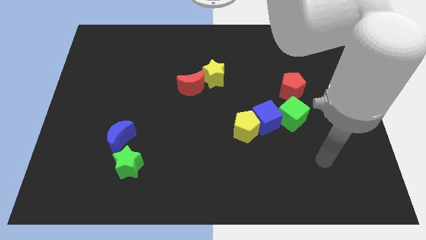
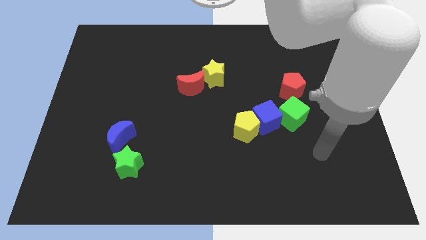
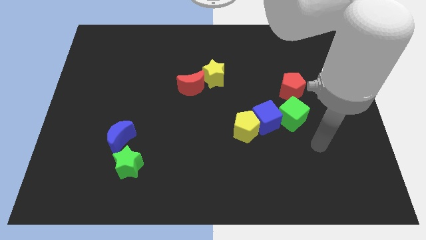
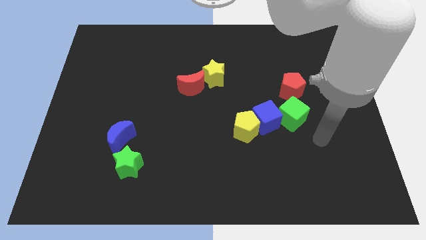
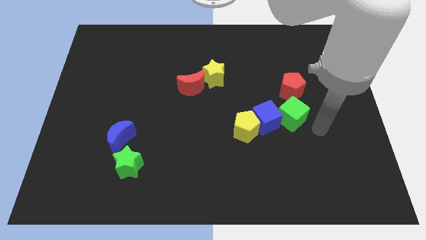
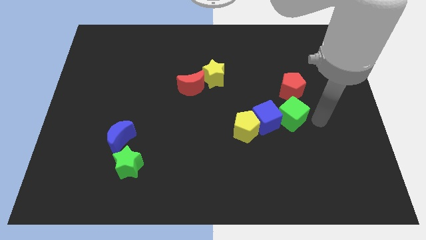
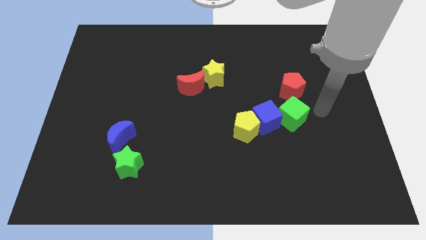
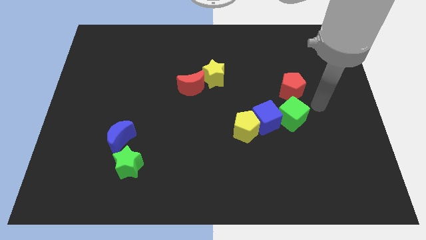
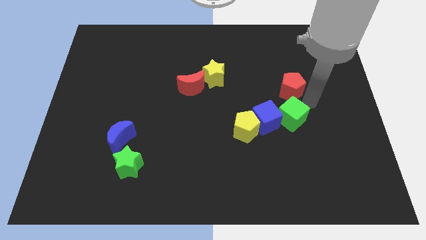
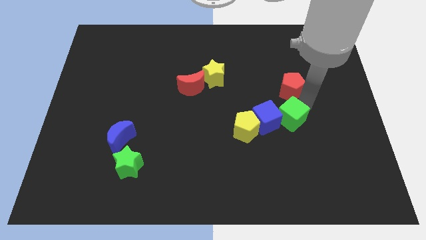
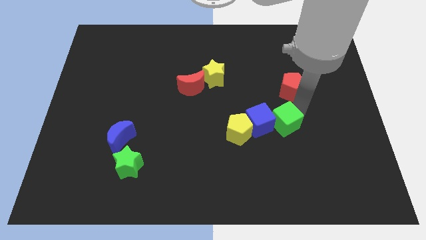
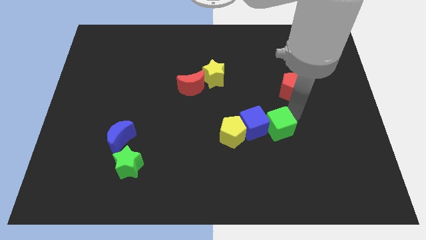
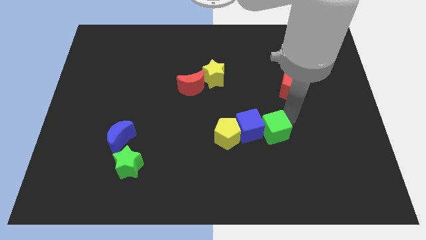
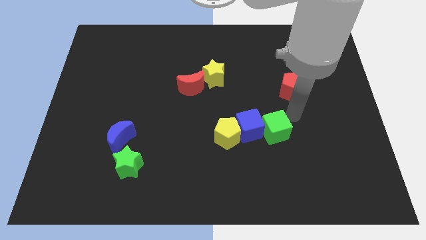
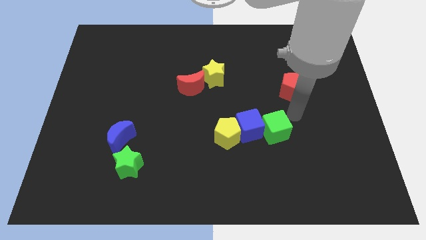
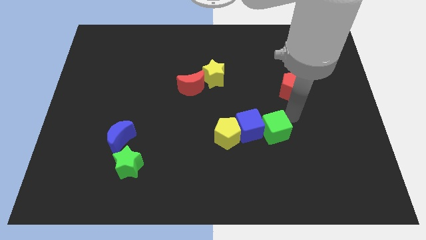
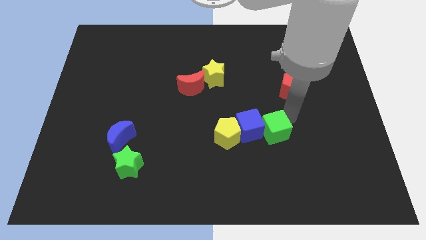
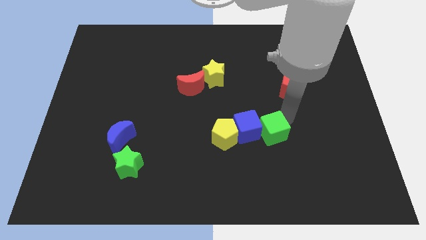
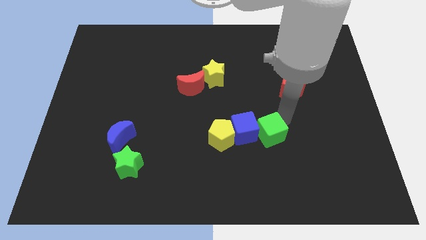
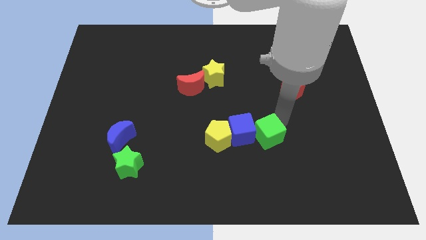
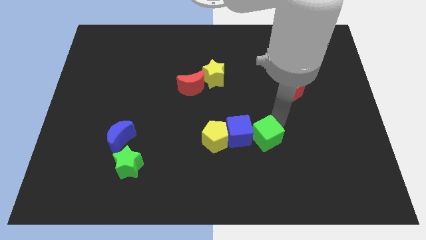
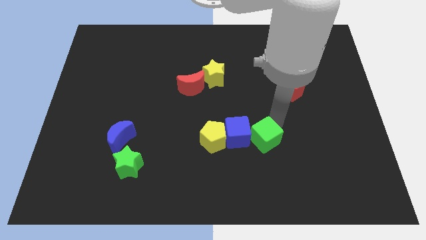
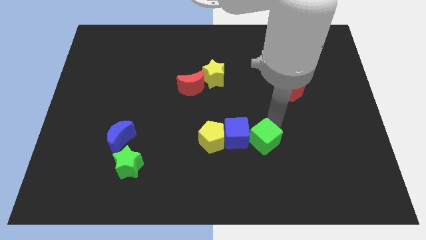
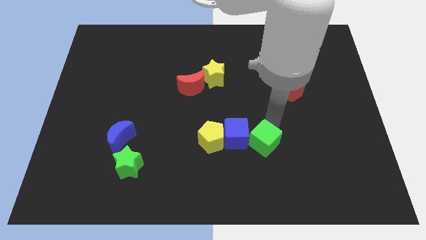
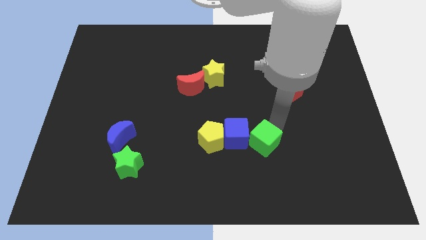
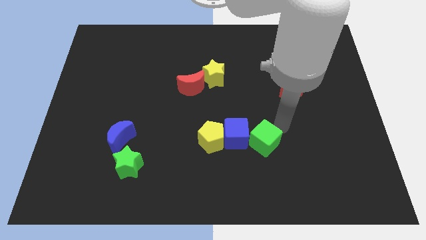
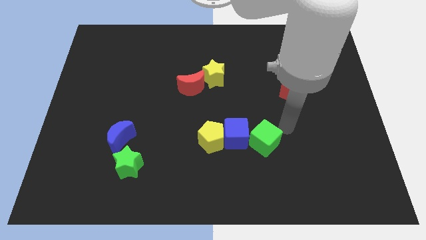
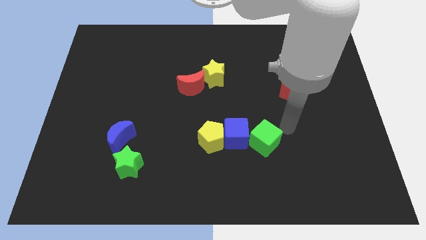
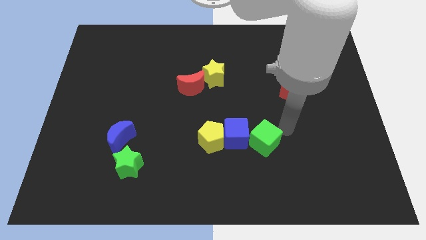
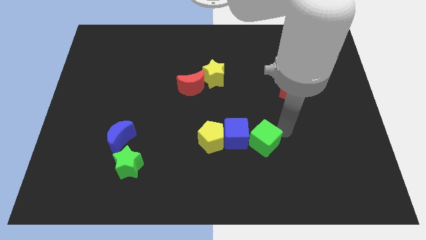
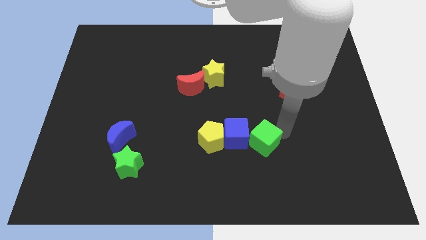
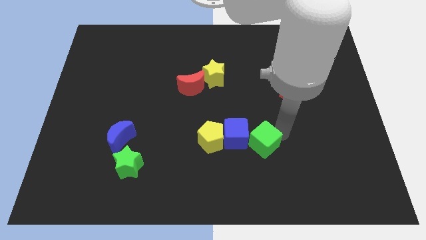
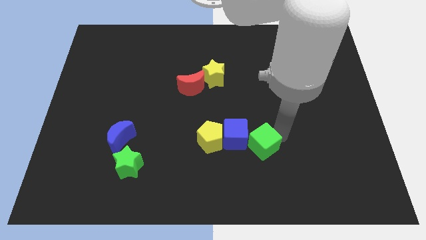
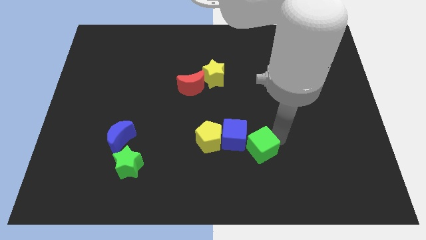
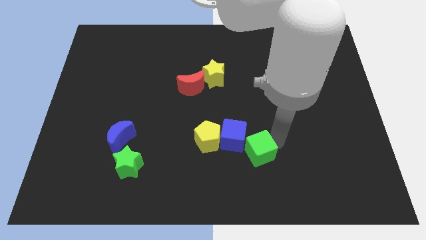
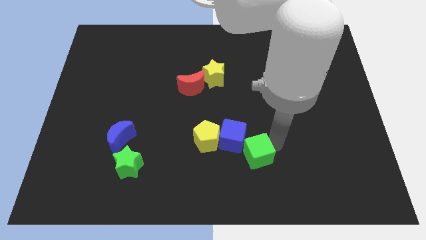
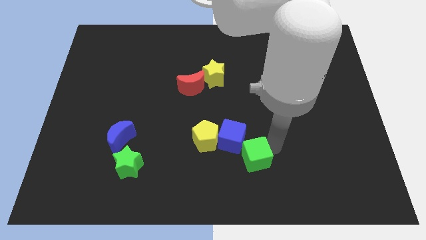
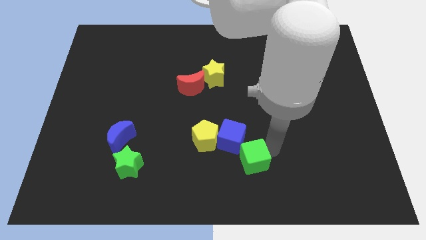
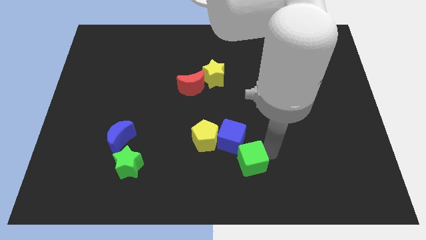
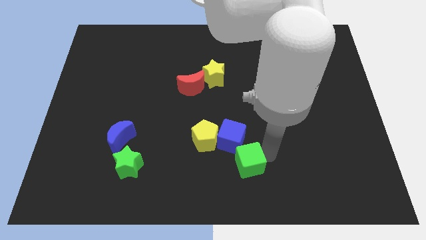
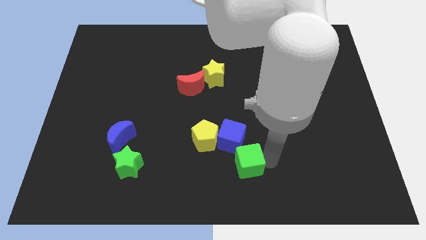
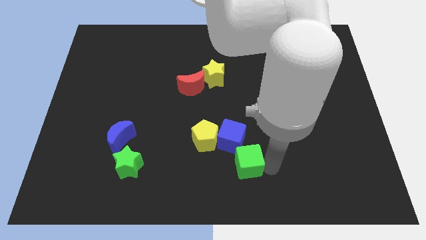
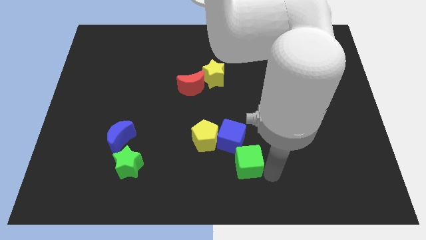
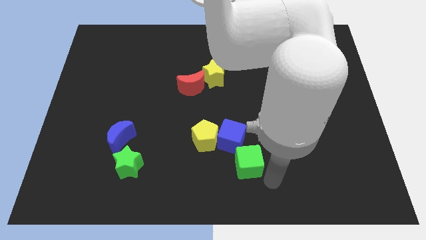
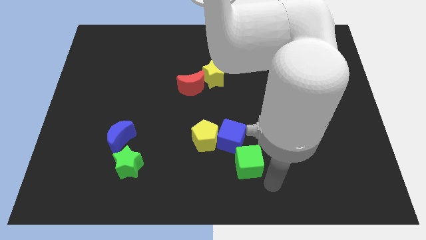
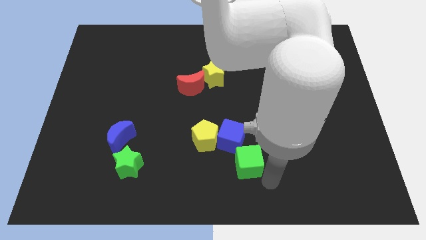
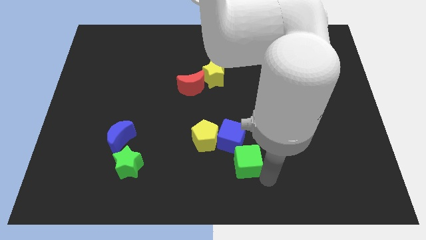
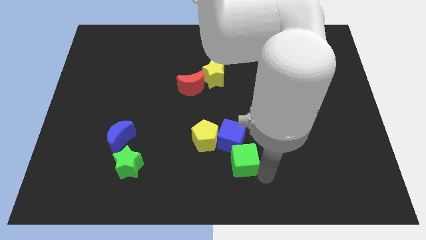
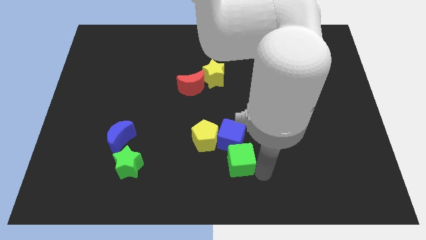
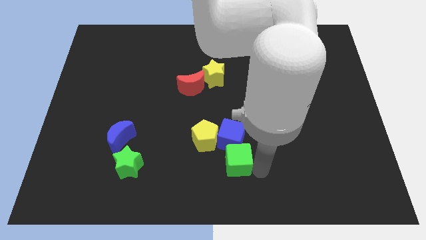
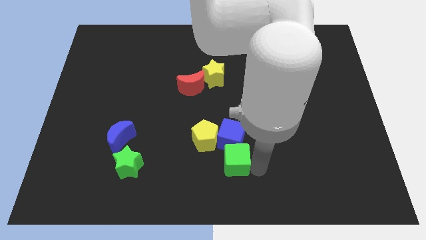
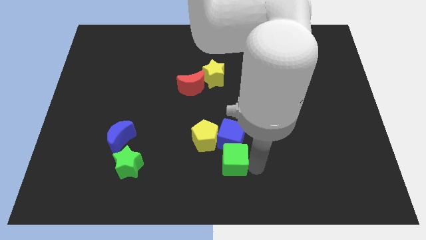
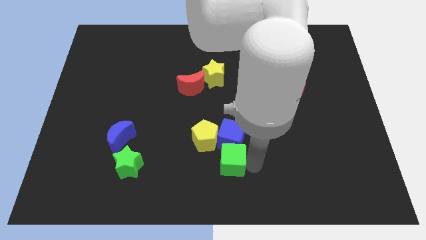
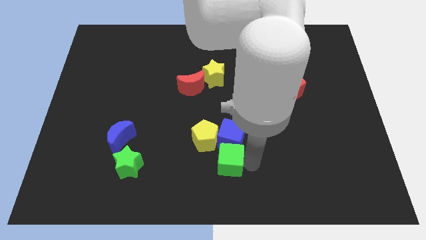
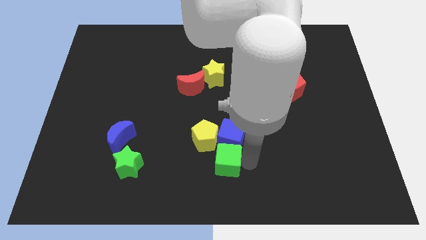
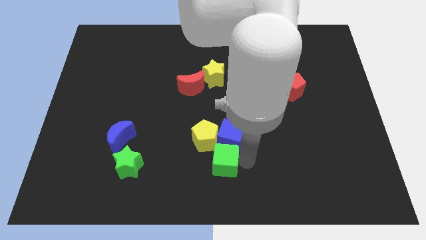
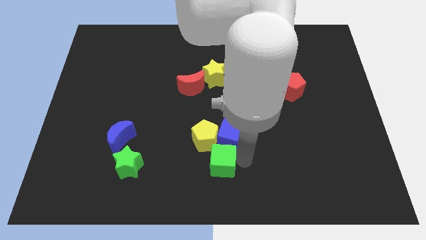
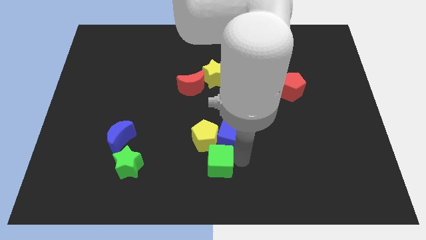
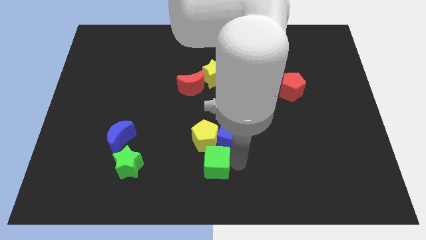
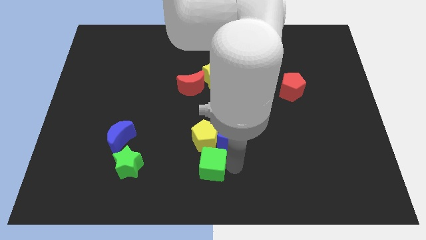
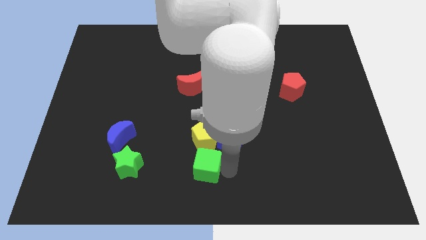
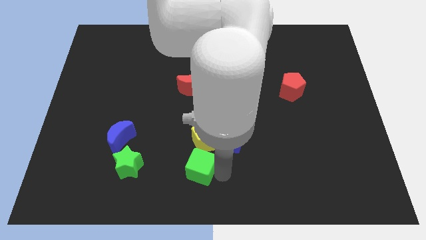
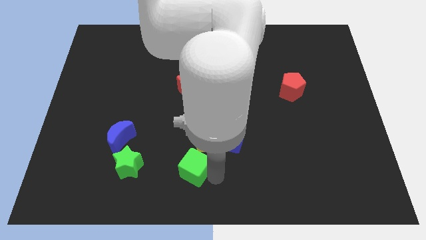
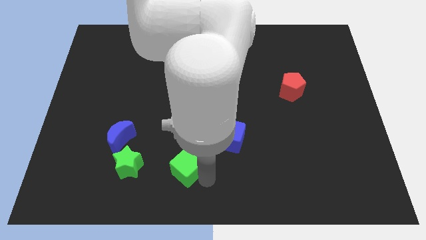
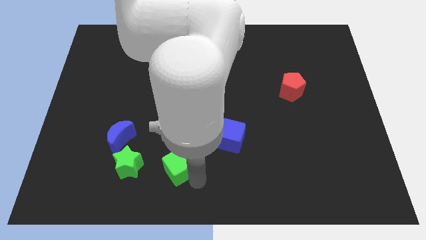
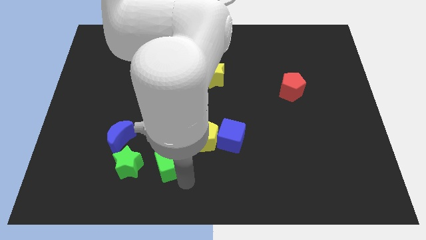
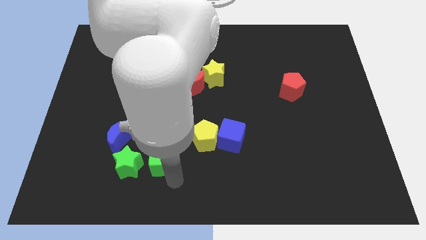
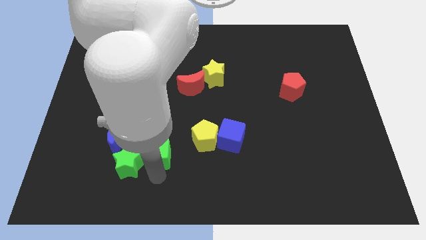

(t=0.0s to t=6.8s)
slide the green cube to the green star
